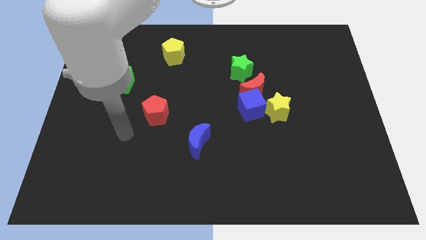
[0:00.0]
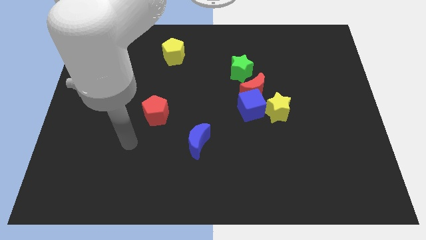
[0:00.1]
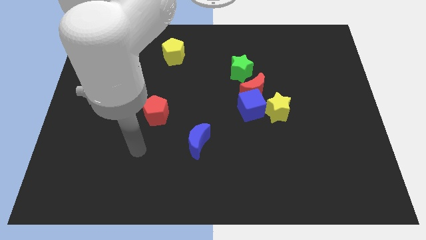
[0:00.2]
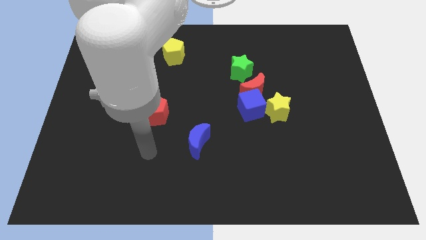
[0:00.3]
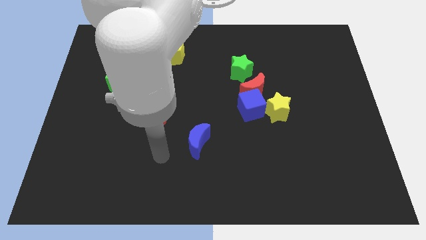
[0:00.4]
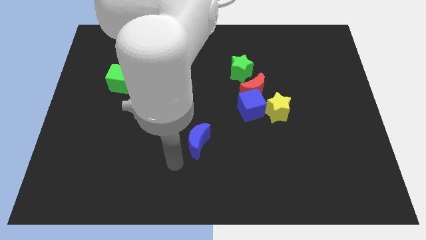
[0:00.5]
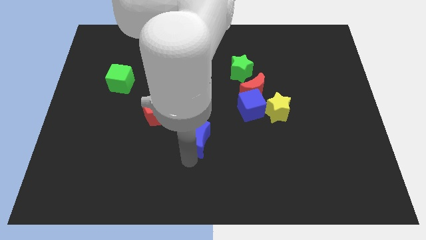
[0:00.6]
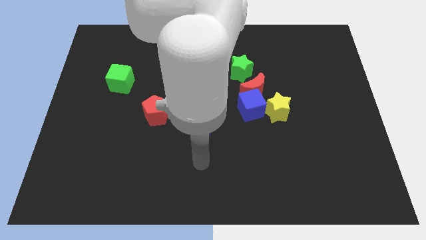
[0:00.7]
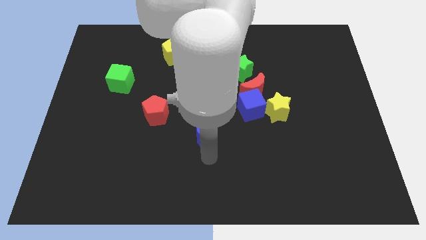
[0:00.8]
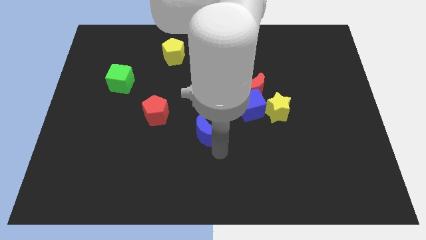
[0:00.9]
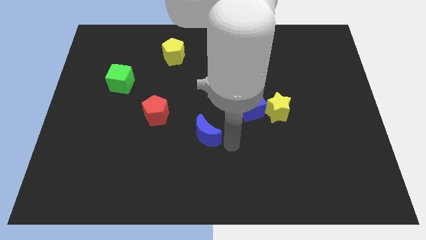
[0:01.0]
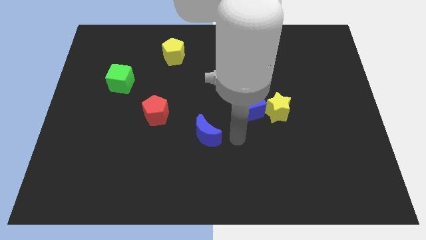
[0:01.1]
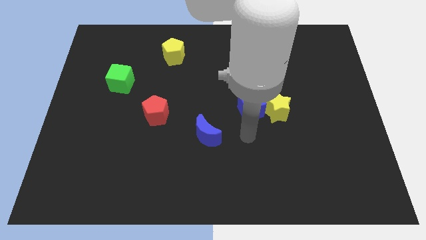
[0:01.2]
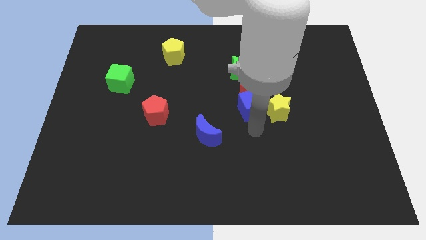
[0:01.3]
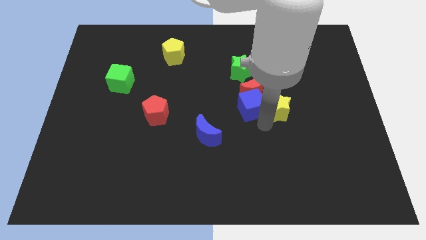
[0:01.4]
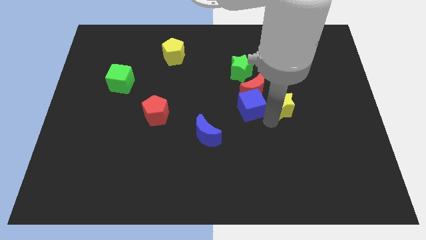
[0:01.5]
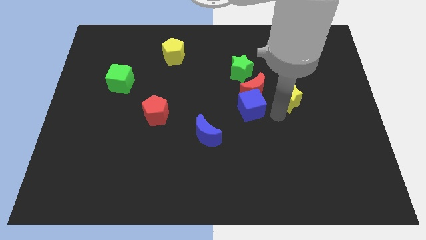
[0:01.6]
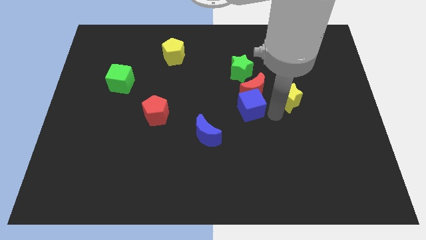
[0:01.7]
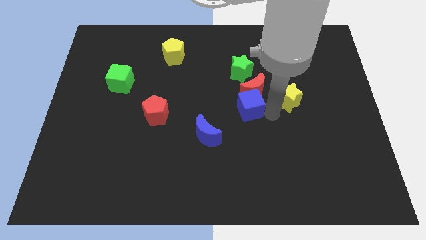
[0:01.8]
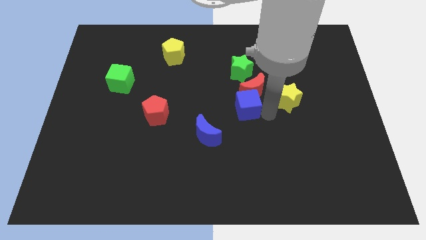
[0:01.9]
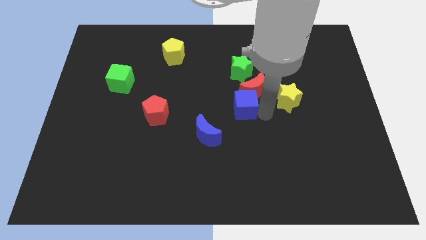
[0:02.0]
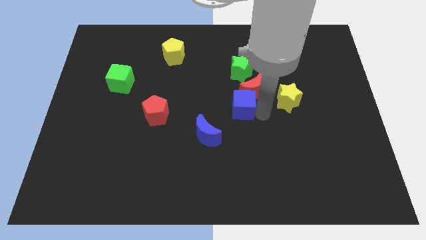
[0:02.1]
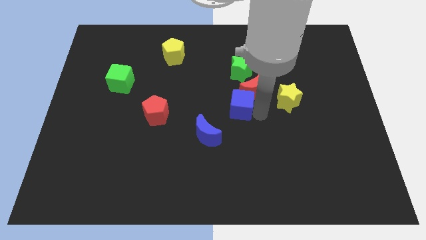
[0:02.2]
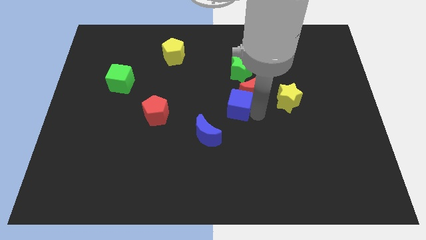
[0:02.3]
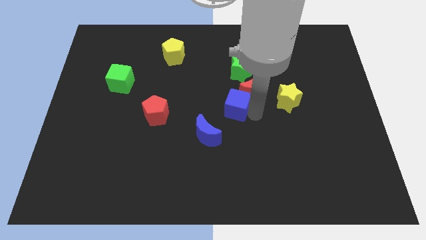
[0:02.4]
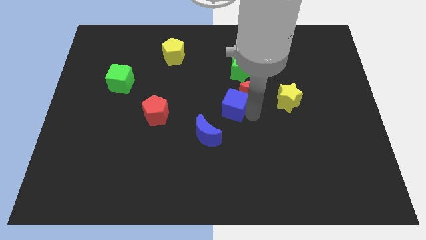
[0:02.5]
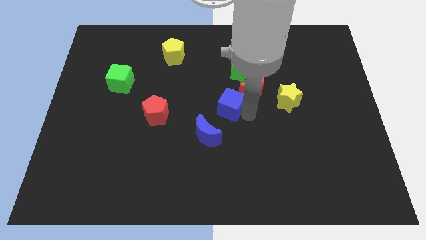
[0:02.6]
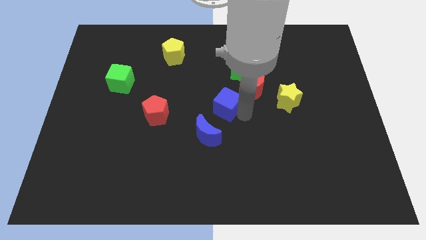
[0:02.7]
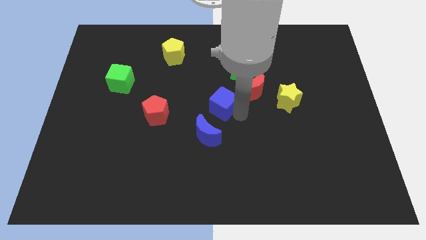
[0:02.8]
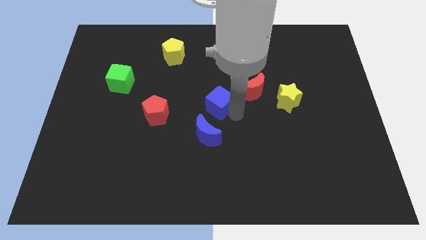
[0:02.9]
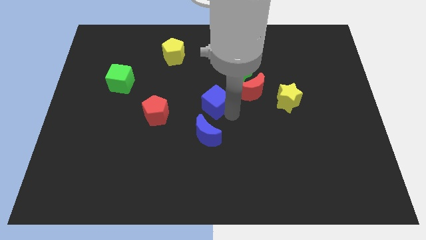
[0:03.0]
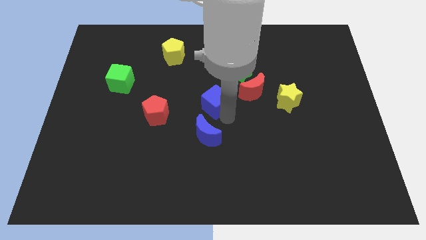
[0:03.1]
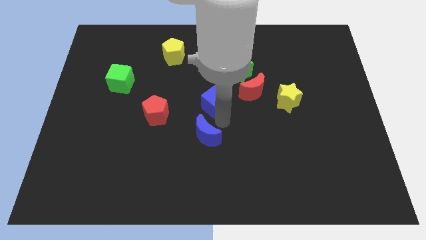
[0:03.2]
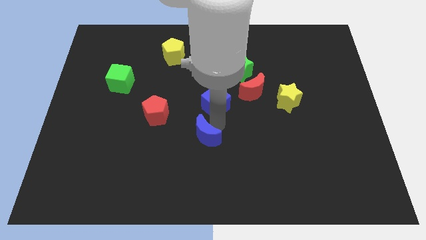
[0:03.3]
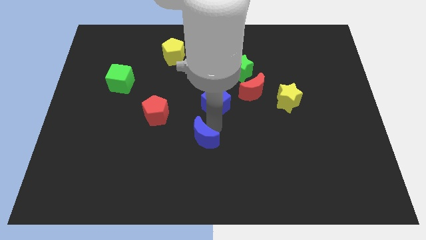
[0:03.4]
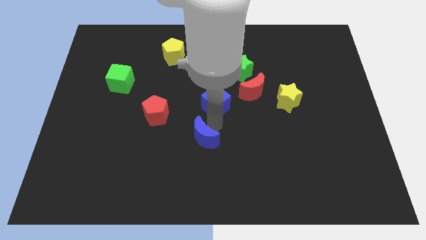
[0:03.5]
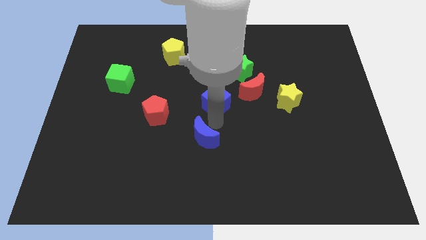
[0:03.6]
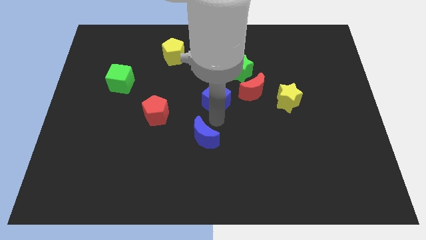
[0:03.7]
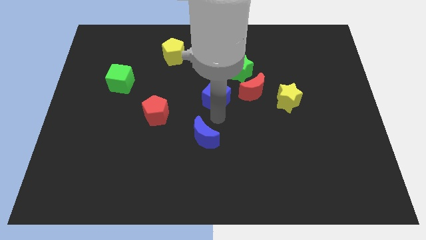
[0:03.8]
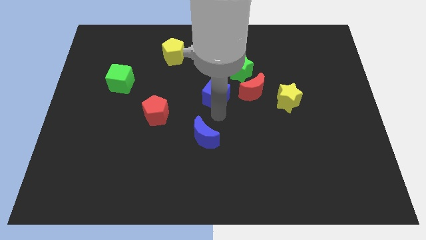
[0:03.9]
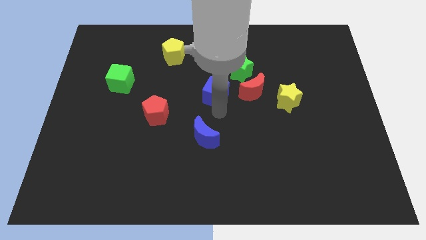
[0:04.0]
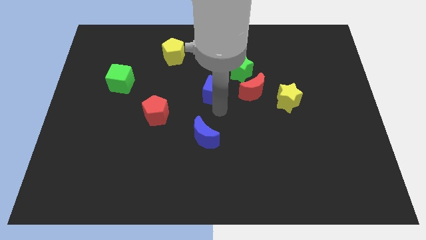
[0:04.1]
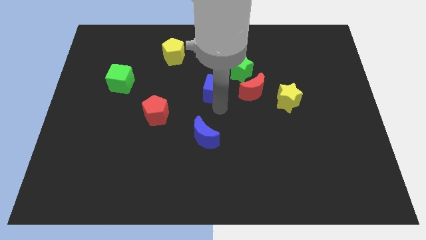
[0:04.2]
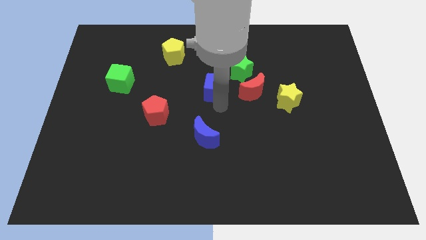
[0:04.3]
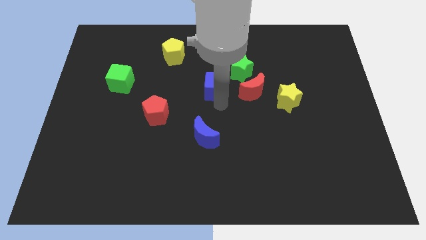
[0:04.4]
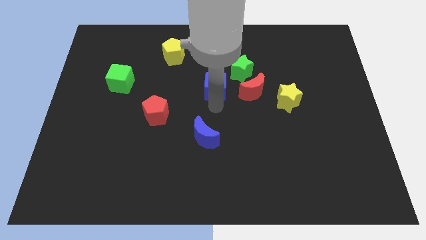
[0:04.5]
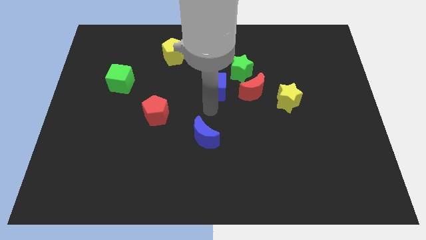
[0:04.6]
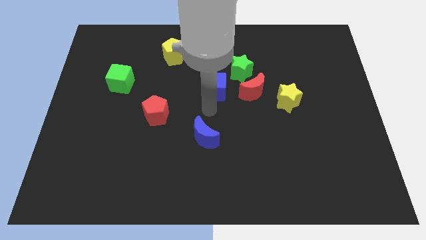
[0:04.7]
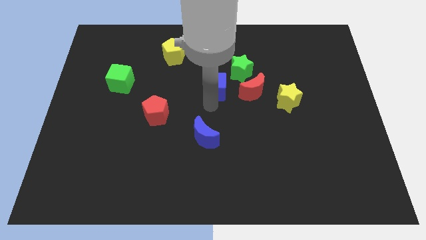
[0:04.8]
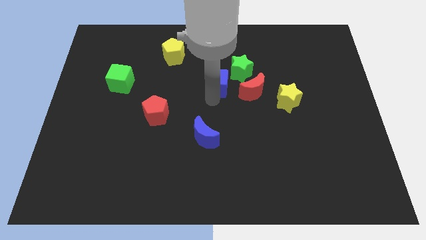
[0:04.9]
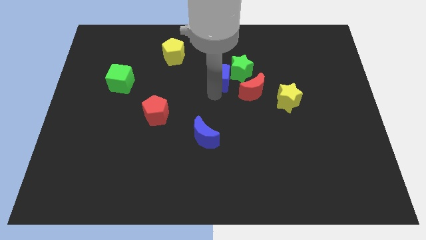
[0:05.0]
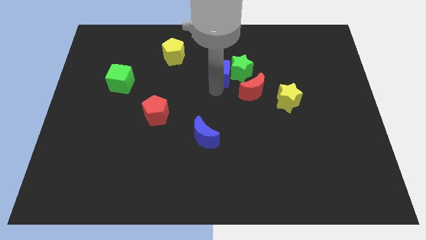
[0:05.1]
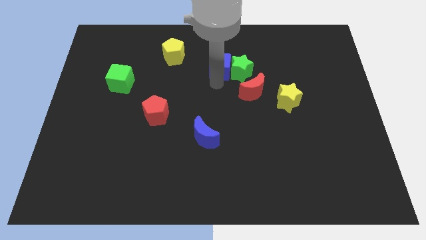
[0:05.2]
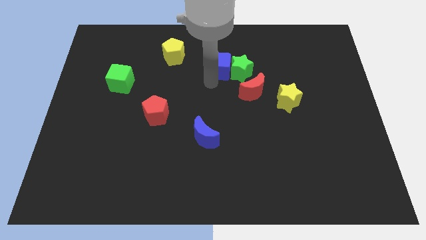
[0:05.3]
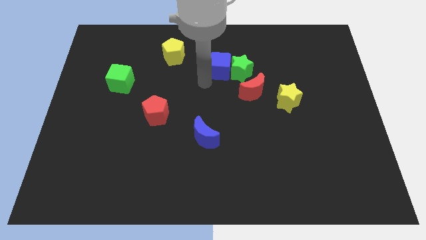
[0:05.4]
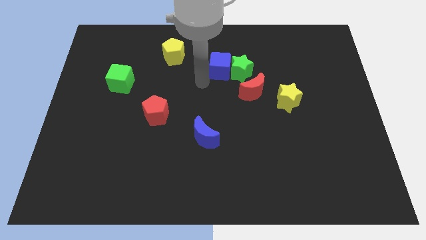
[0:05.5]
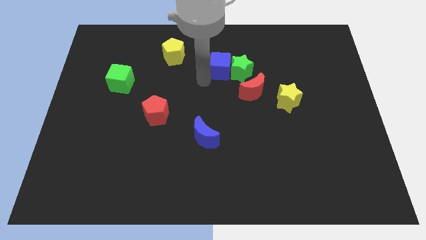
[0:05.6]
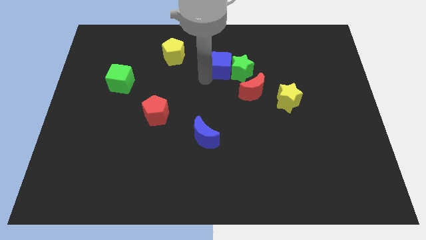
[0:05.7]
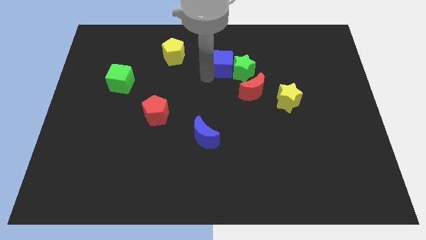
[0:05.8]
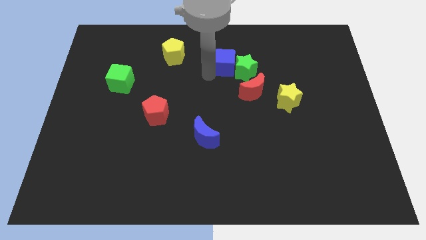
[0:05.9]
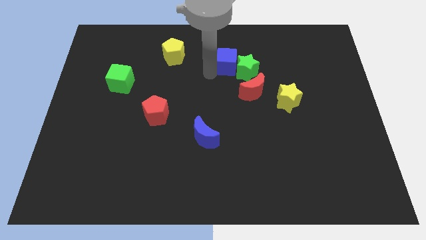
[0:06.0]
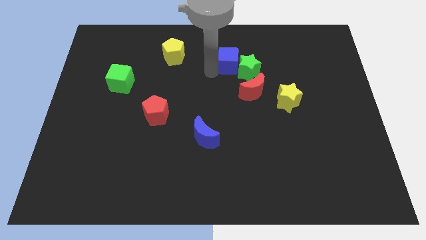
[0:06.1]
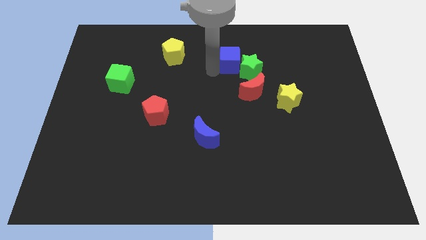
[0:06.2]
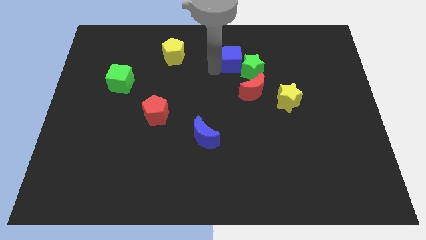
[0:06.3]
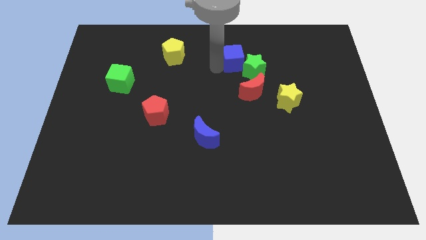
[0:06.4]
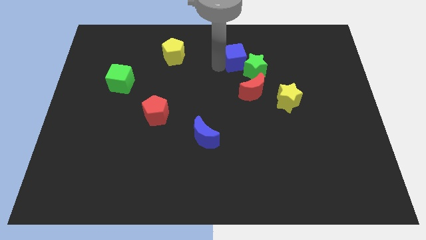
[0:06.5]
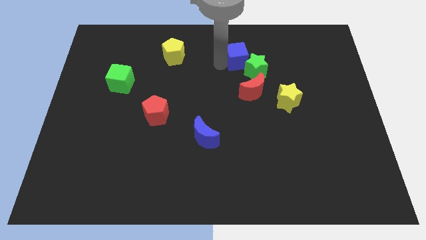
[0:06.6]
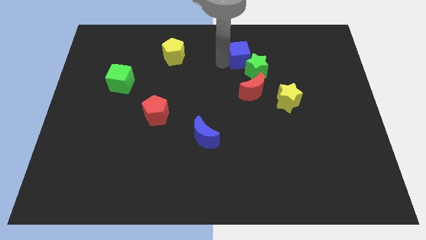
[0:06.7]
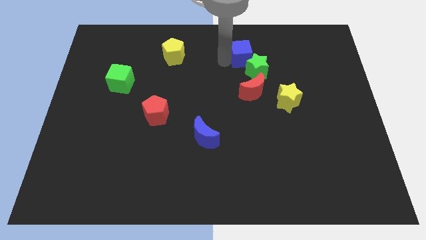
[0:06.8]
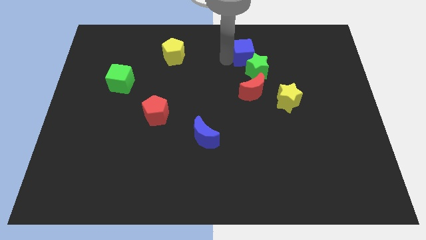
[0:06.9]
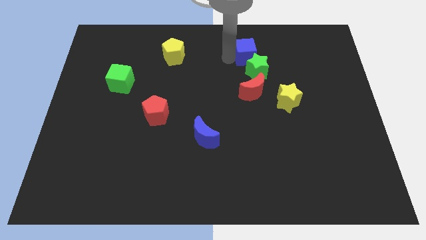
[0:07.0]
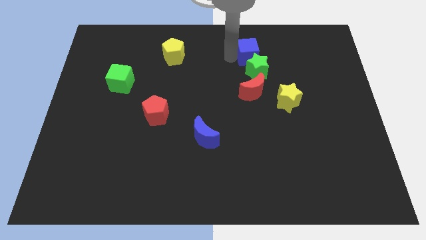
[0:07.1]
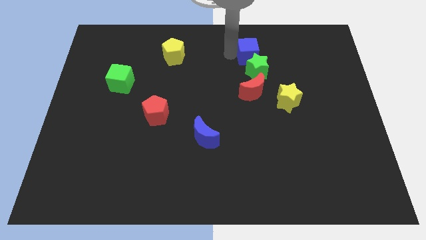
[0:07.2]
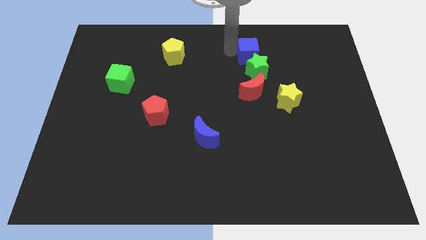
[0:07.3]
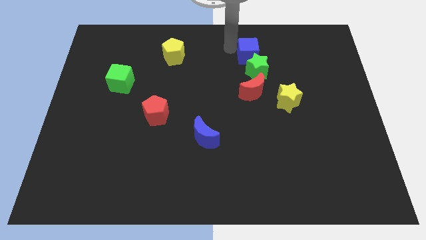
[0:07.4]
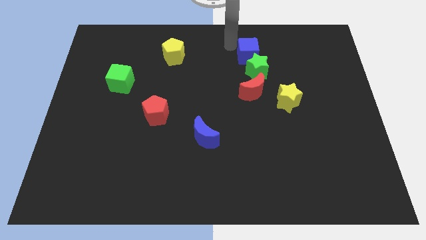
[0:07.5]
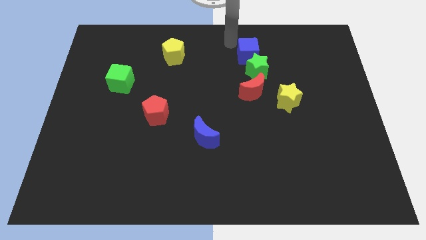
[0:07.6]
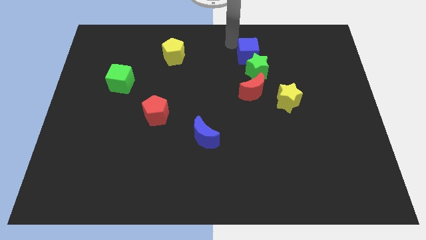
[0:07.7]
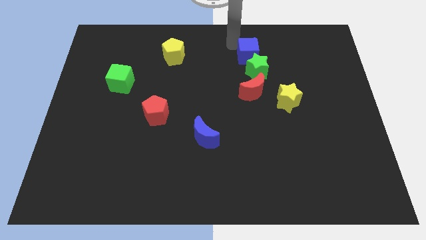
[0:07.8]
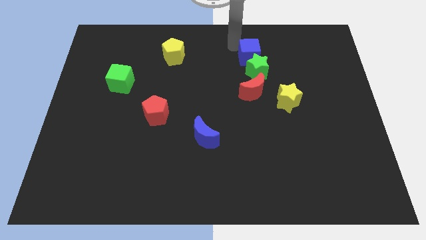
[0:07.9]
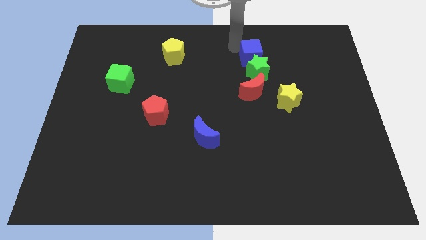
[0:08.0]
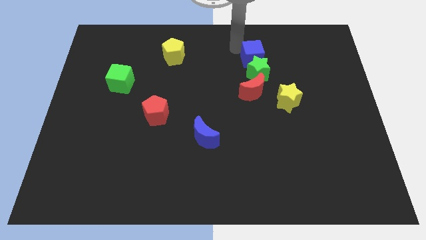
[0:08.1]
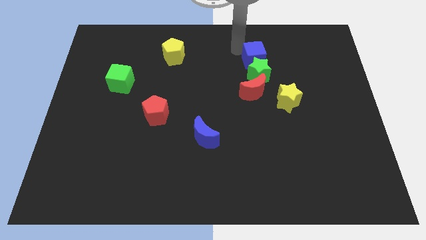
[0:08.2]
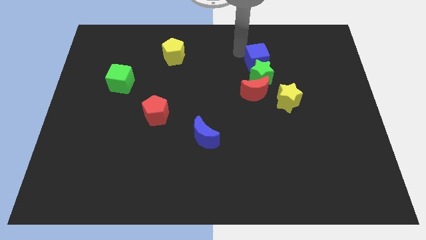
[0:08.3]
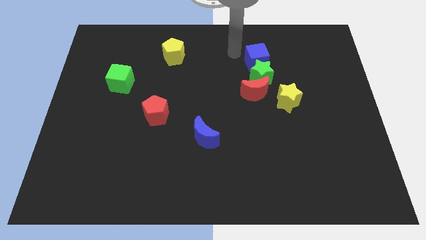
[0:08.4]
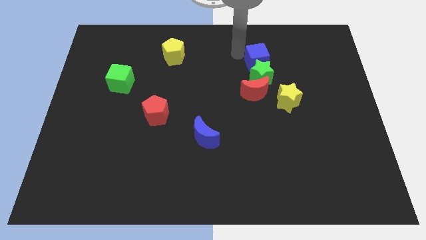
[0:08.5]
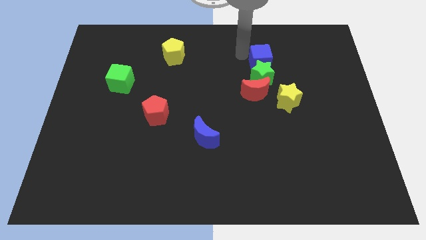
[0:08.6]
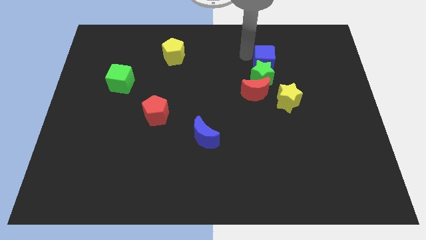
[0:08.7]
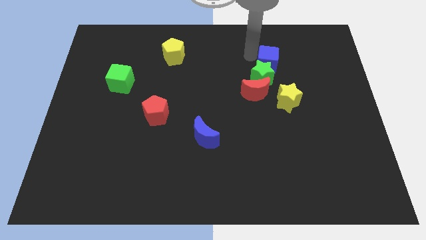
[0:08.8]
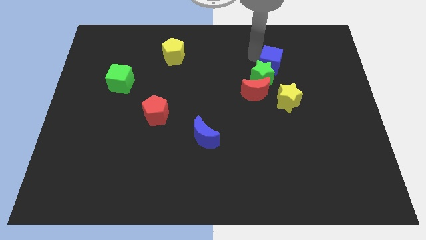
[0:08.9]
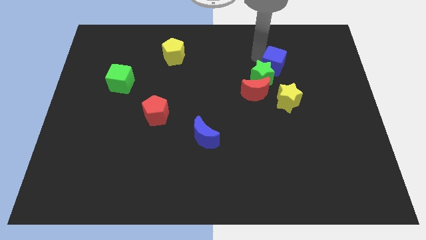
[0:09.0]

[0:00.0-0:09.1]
move the blue cube right of the green star
